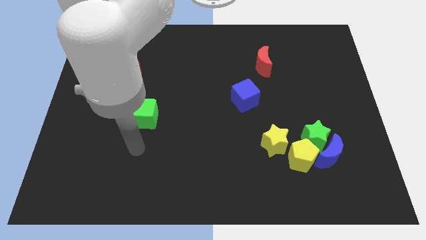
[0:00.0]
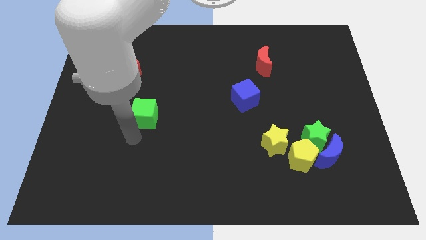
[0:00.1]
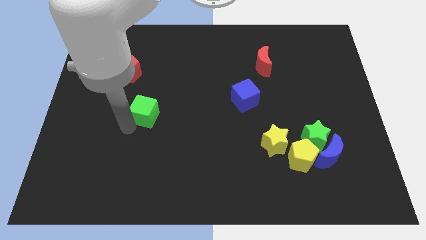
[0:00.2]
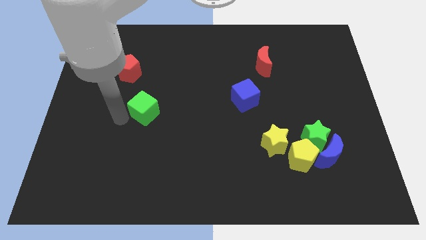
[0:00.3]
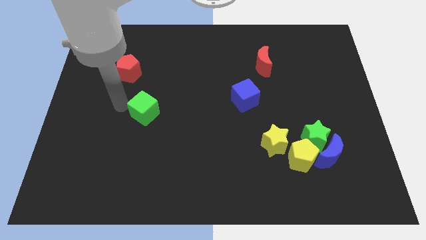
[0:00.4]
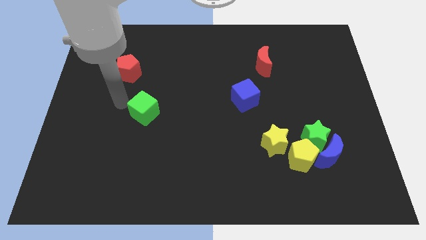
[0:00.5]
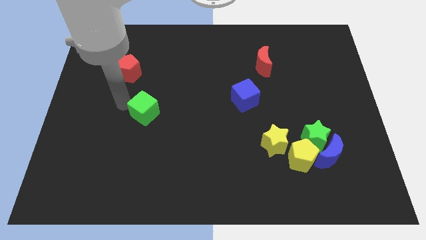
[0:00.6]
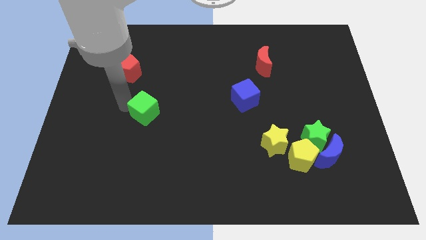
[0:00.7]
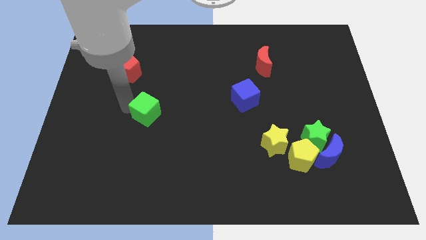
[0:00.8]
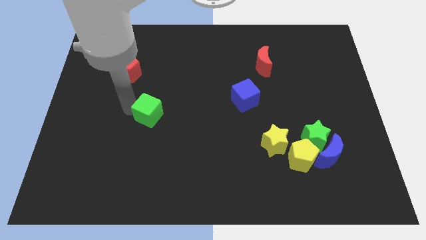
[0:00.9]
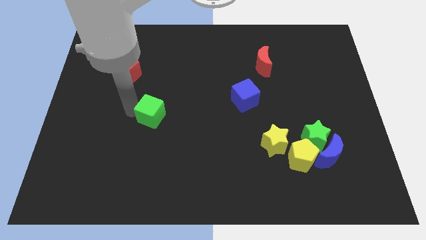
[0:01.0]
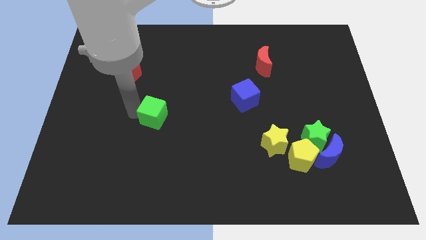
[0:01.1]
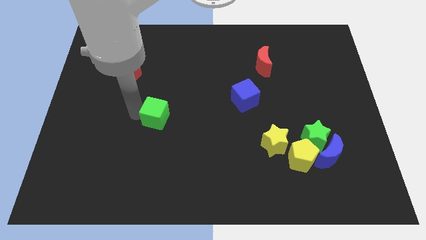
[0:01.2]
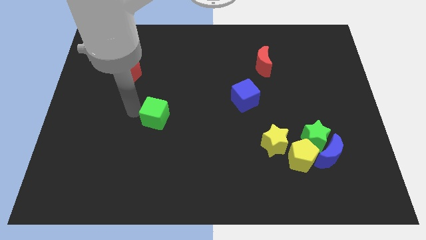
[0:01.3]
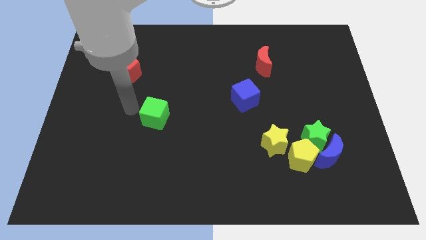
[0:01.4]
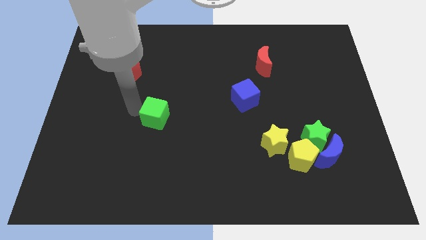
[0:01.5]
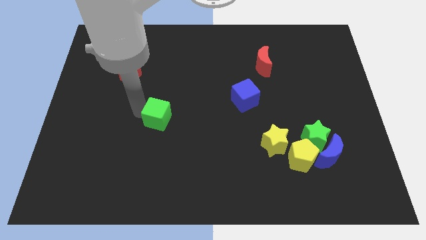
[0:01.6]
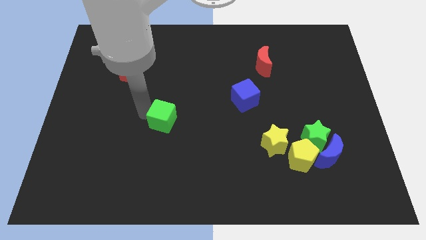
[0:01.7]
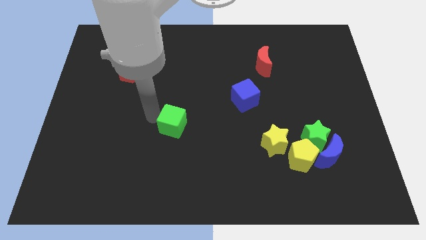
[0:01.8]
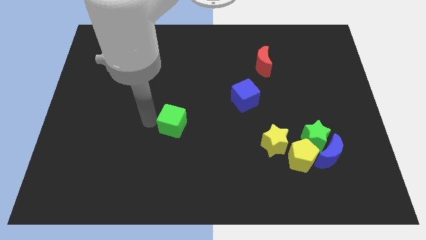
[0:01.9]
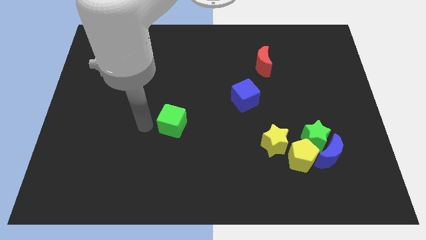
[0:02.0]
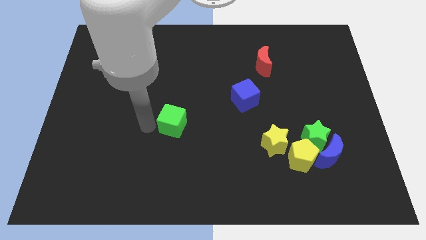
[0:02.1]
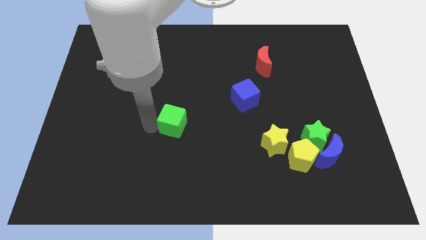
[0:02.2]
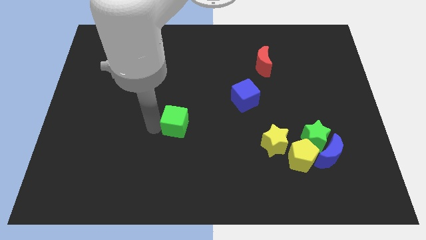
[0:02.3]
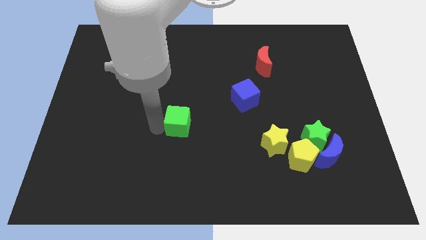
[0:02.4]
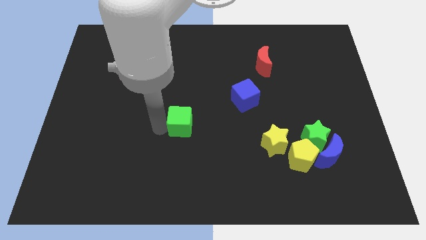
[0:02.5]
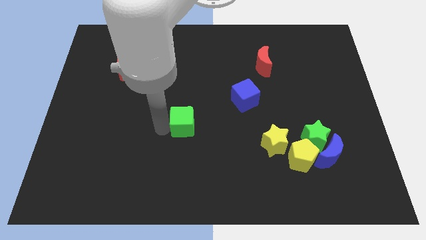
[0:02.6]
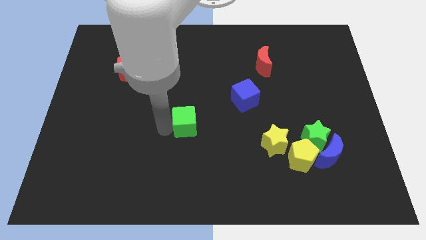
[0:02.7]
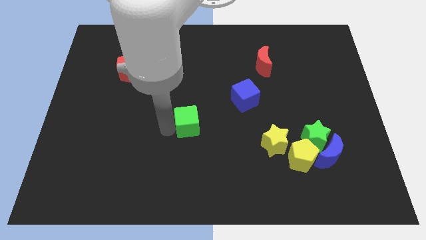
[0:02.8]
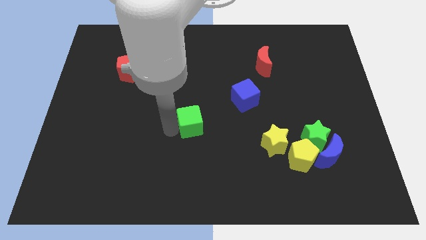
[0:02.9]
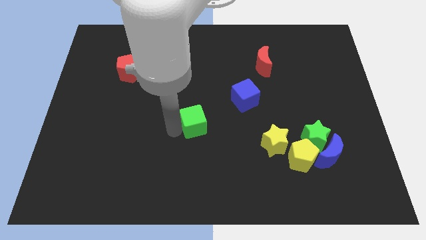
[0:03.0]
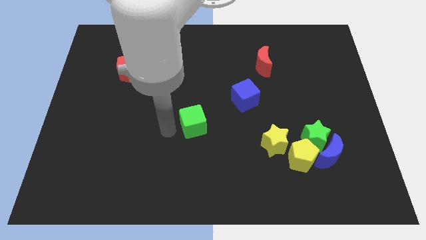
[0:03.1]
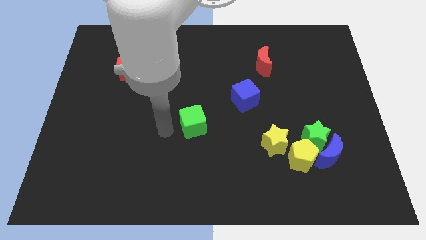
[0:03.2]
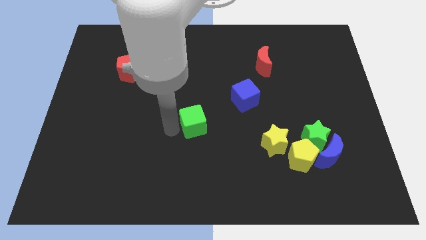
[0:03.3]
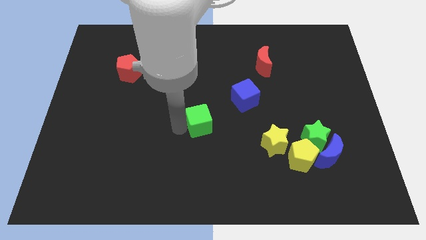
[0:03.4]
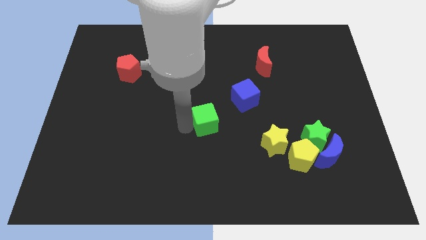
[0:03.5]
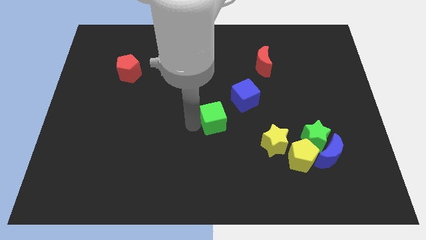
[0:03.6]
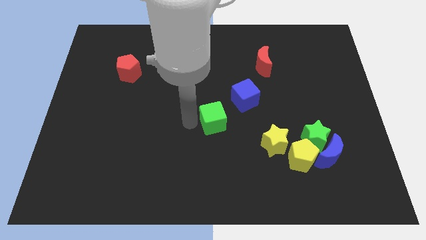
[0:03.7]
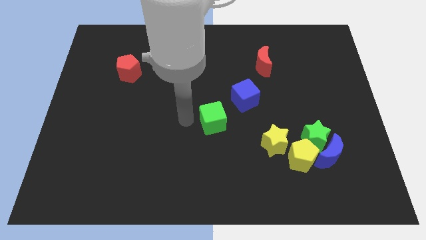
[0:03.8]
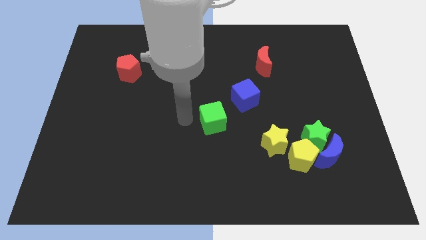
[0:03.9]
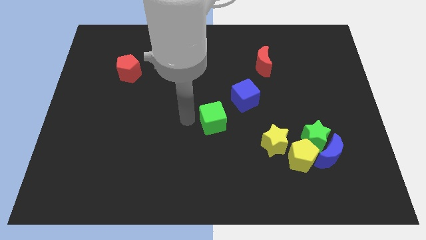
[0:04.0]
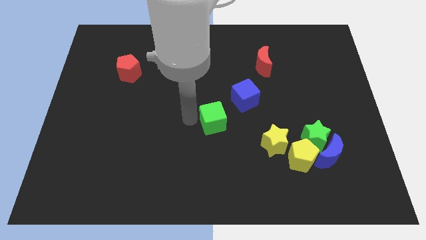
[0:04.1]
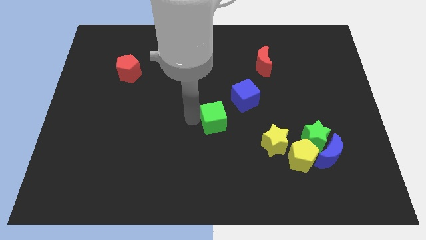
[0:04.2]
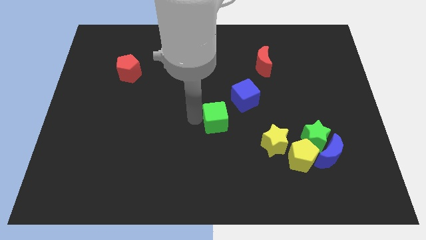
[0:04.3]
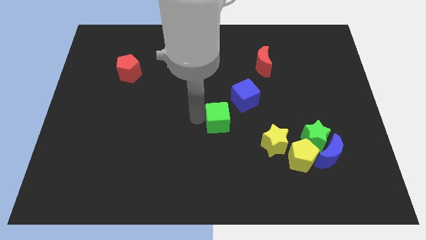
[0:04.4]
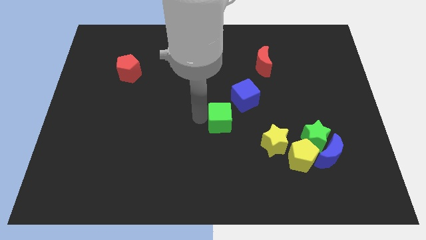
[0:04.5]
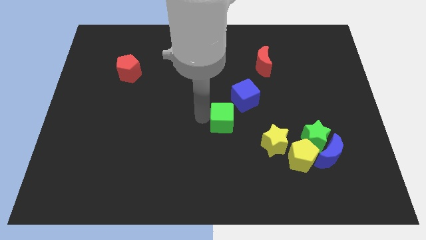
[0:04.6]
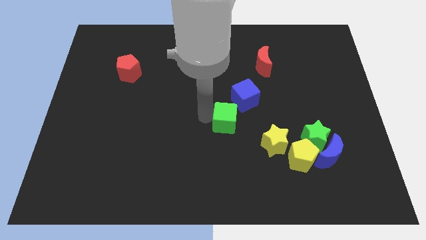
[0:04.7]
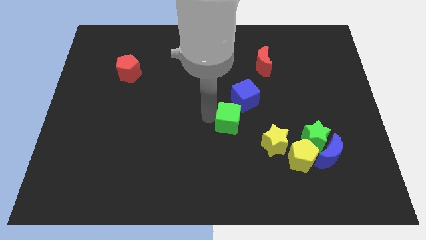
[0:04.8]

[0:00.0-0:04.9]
push the green cube to the top left side of the yellow star

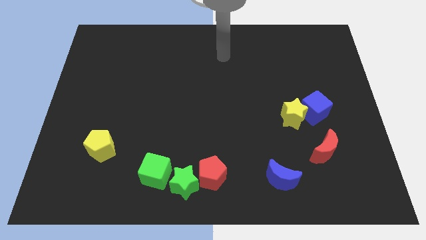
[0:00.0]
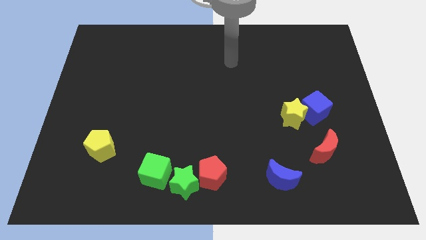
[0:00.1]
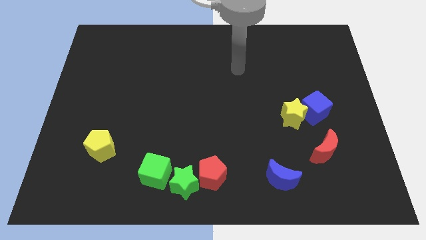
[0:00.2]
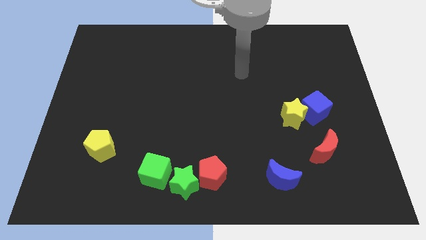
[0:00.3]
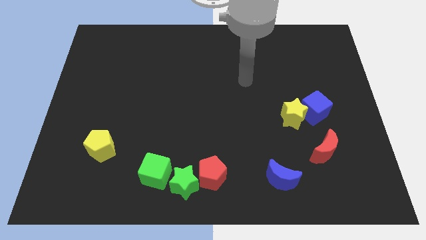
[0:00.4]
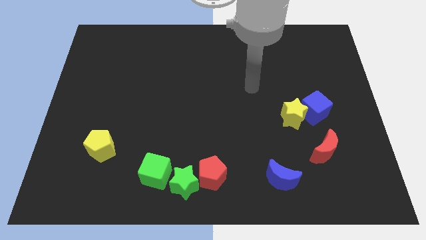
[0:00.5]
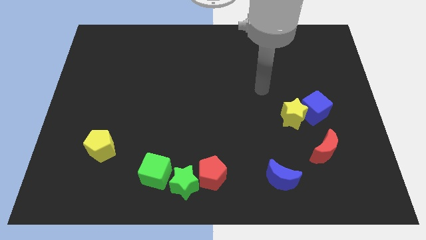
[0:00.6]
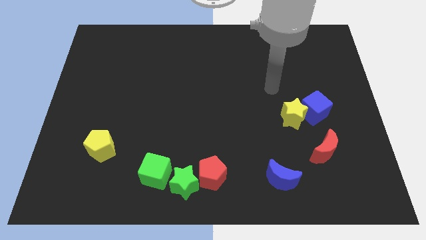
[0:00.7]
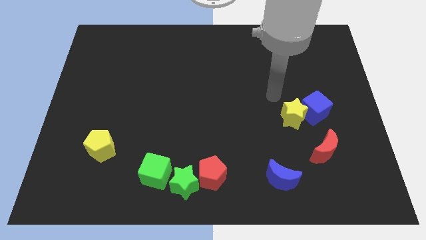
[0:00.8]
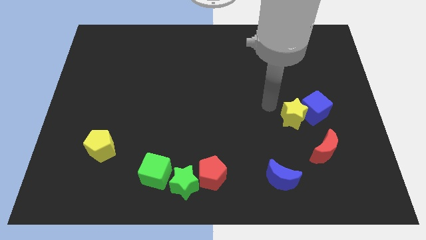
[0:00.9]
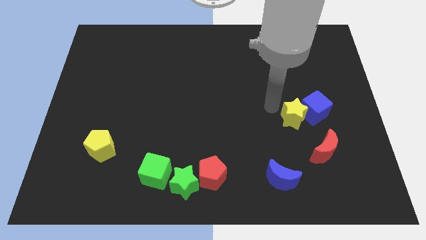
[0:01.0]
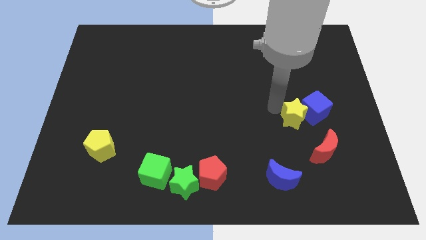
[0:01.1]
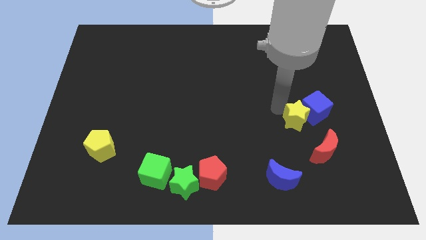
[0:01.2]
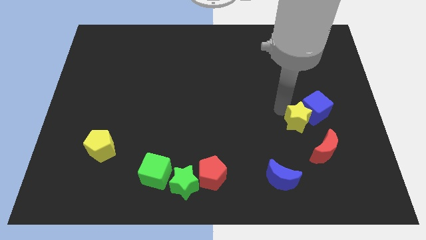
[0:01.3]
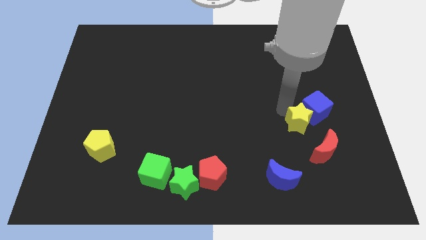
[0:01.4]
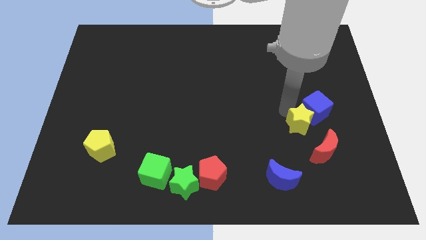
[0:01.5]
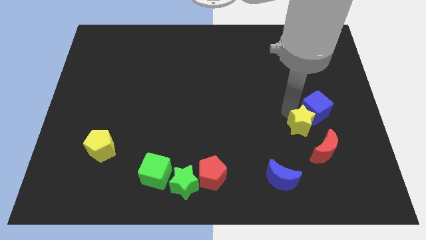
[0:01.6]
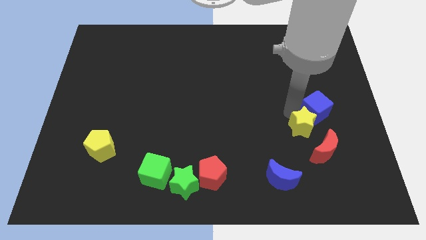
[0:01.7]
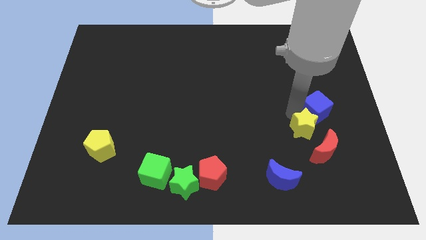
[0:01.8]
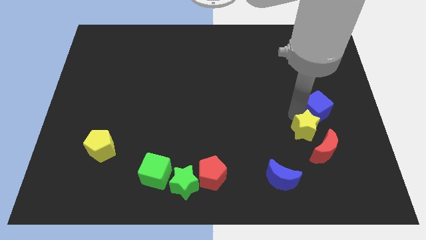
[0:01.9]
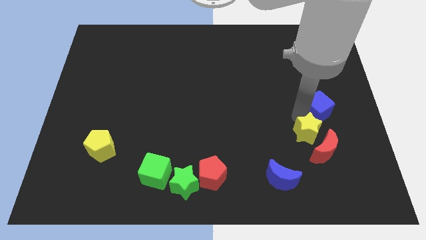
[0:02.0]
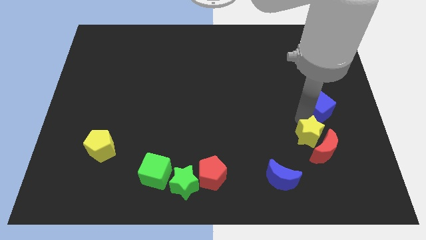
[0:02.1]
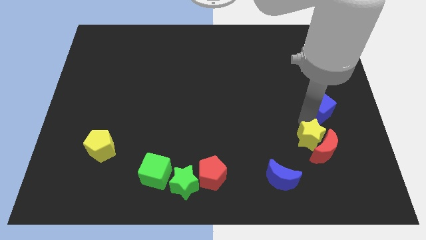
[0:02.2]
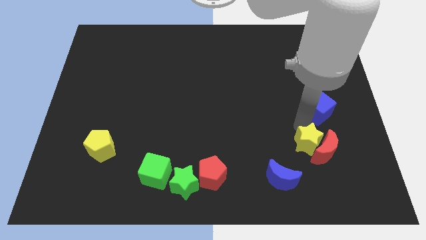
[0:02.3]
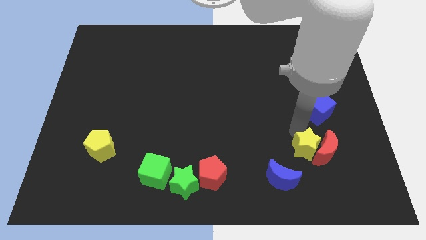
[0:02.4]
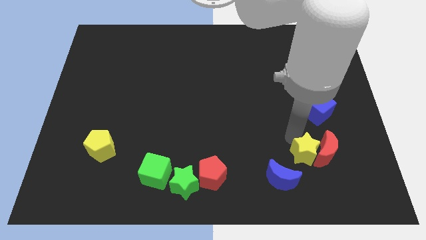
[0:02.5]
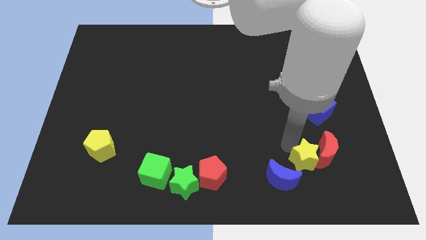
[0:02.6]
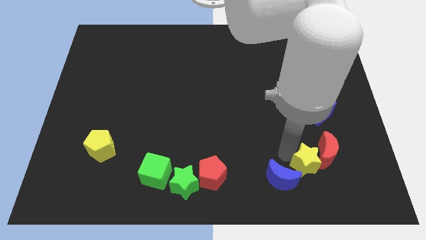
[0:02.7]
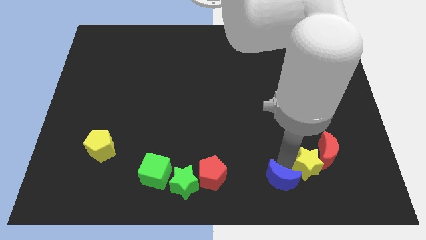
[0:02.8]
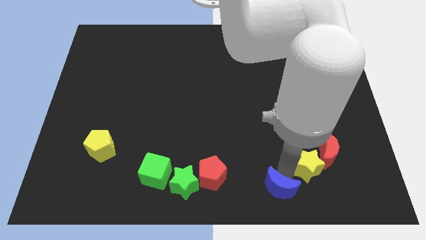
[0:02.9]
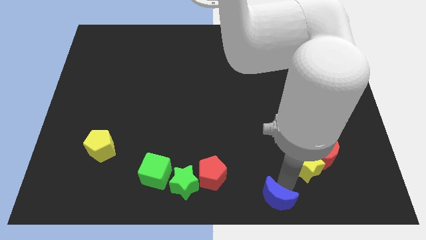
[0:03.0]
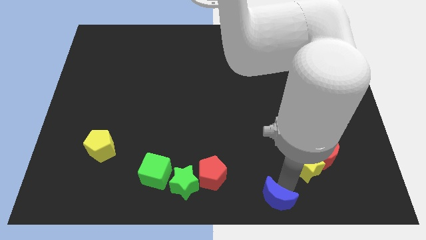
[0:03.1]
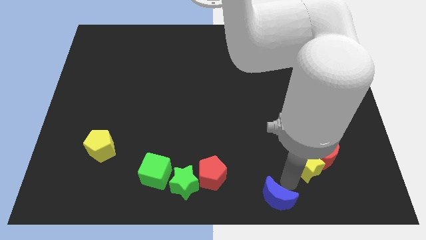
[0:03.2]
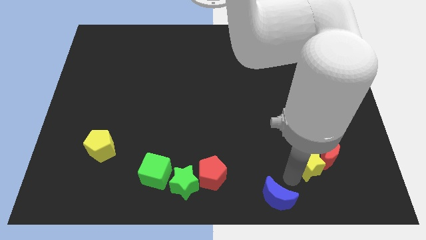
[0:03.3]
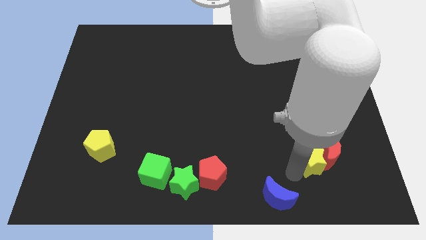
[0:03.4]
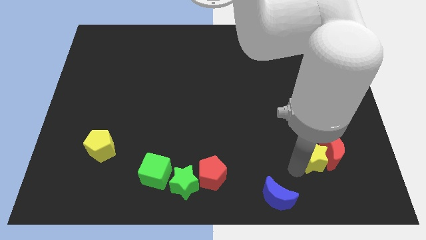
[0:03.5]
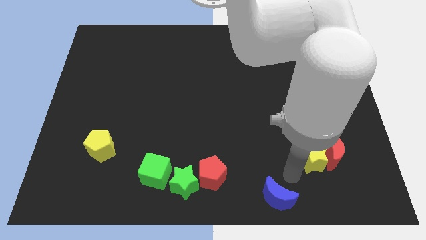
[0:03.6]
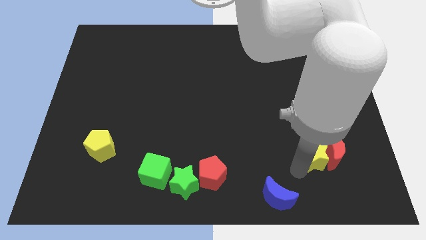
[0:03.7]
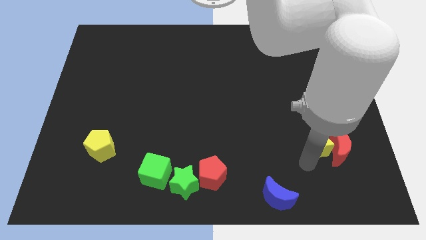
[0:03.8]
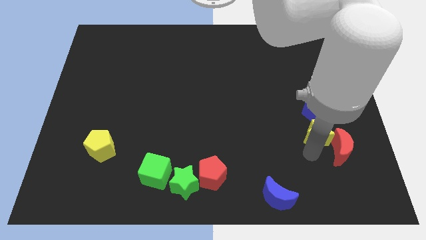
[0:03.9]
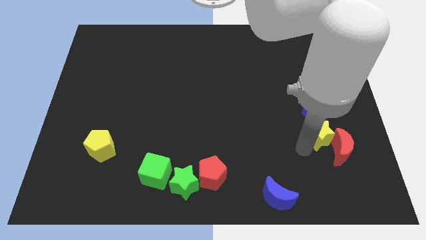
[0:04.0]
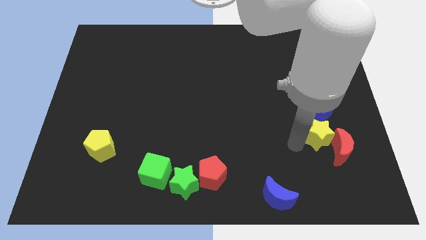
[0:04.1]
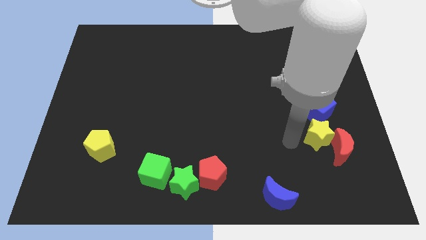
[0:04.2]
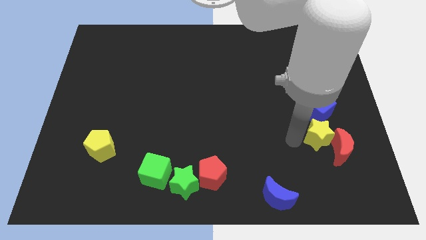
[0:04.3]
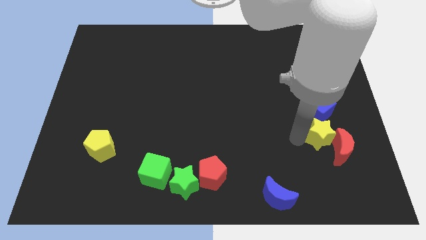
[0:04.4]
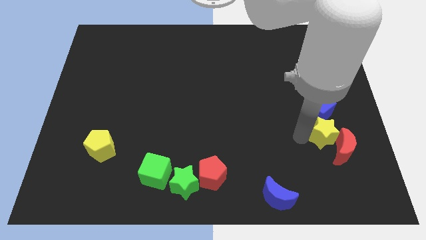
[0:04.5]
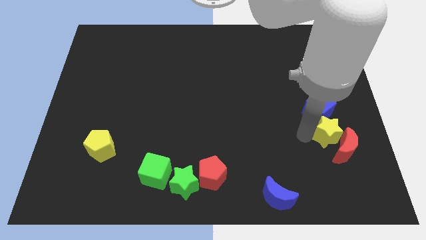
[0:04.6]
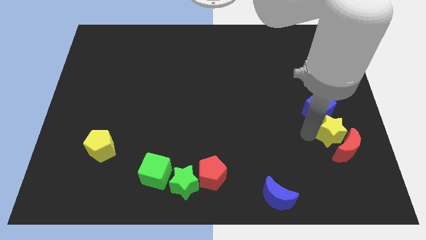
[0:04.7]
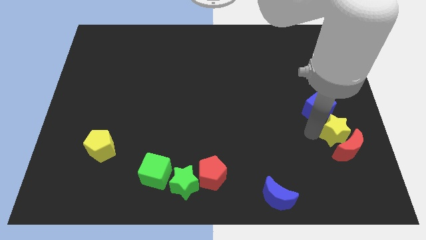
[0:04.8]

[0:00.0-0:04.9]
push the yellow star to the top right of the red moon
